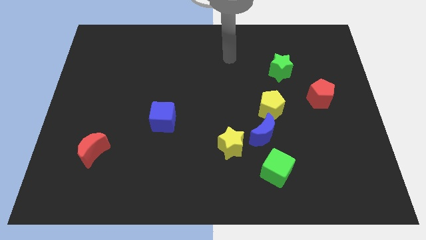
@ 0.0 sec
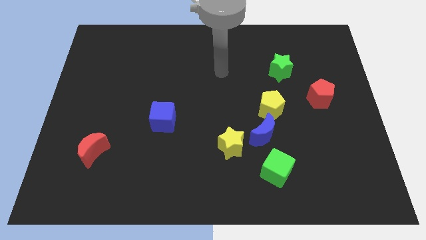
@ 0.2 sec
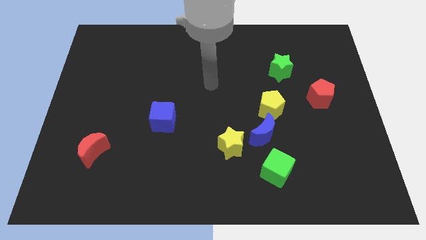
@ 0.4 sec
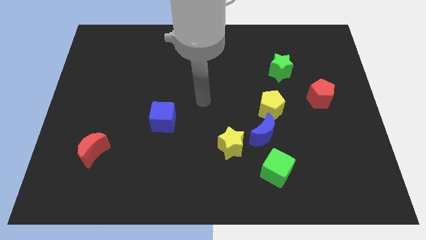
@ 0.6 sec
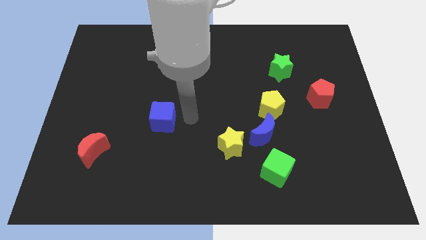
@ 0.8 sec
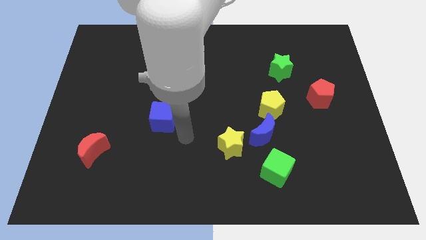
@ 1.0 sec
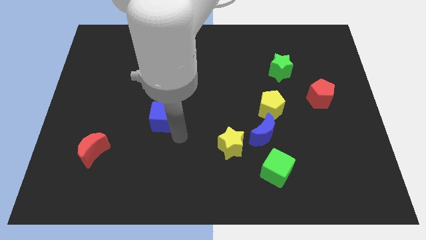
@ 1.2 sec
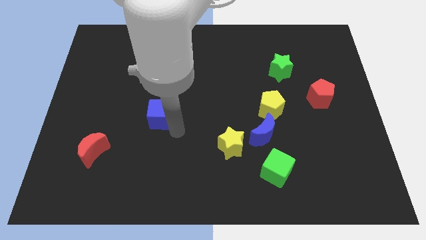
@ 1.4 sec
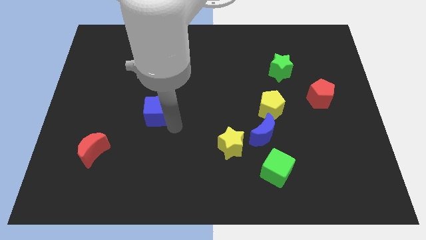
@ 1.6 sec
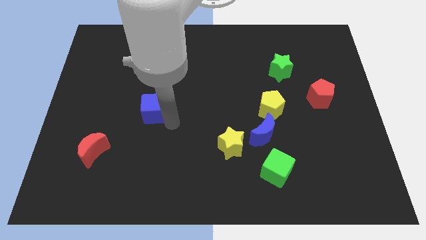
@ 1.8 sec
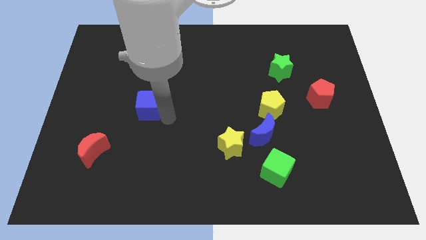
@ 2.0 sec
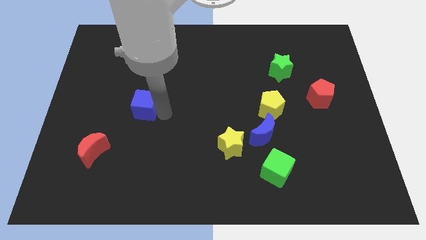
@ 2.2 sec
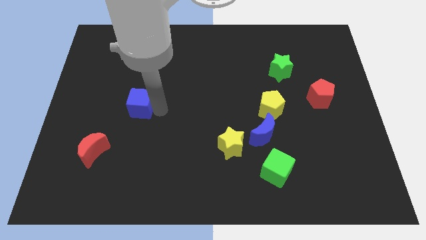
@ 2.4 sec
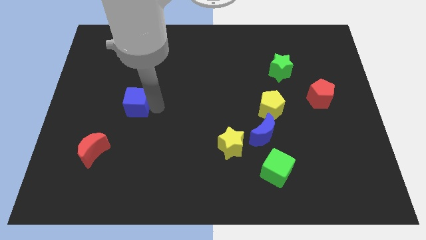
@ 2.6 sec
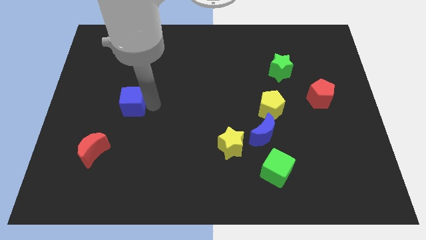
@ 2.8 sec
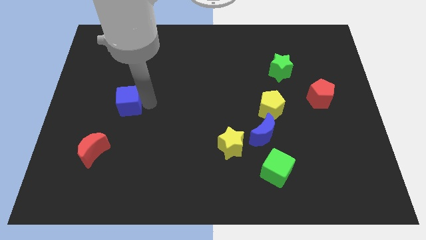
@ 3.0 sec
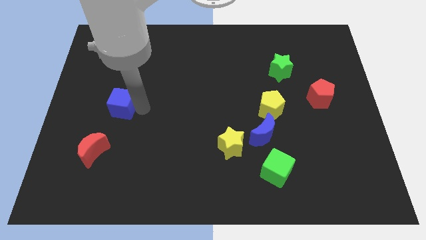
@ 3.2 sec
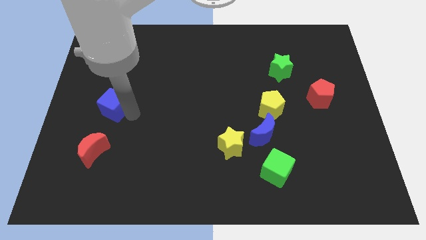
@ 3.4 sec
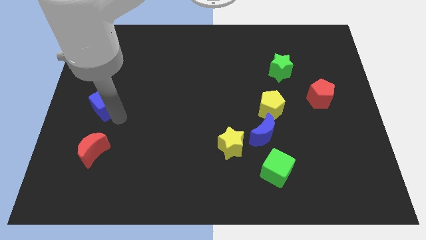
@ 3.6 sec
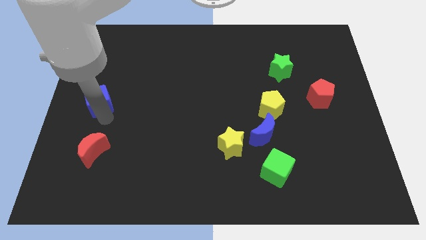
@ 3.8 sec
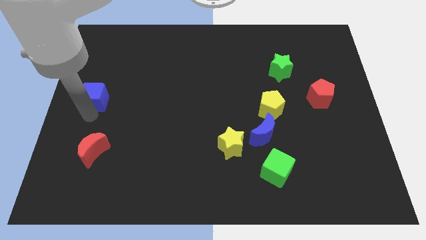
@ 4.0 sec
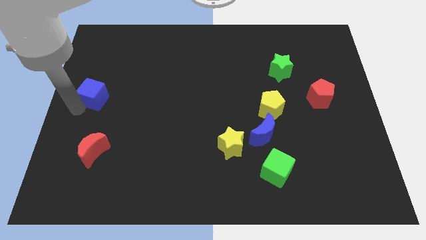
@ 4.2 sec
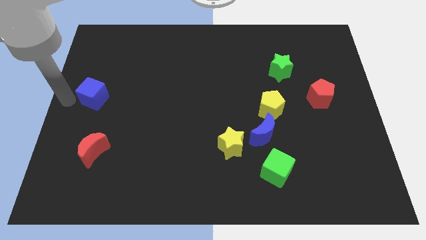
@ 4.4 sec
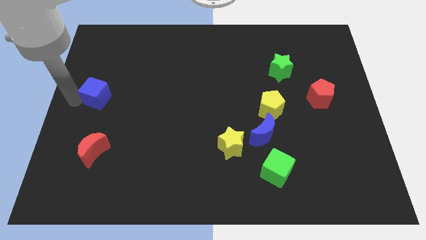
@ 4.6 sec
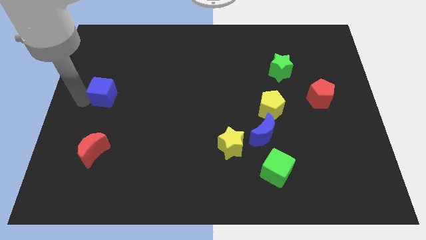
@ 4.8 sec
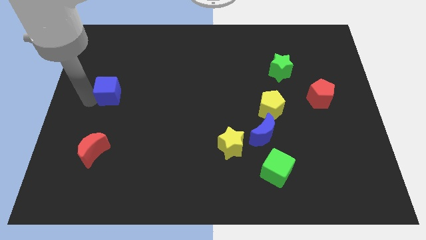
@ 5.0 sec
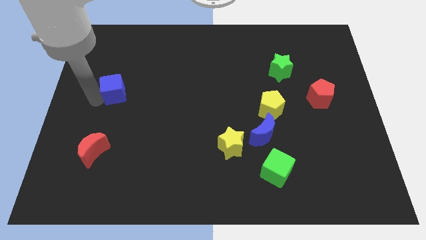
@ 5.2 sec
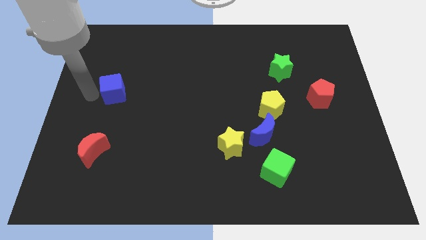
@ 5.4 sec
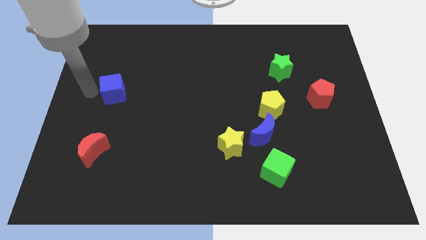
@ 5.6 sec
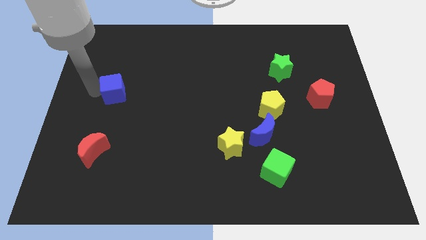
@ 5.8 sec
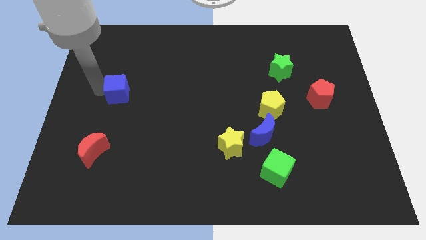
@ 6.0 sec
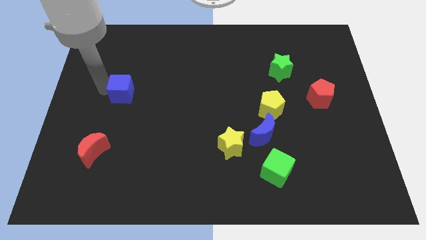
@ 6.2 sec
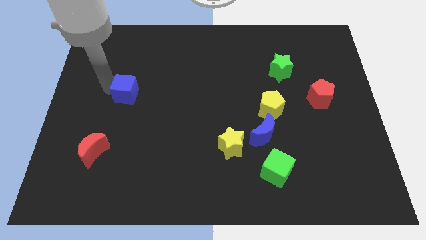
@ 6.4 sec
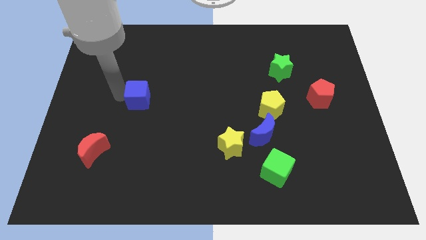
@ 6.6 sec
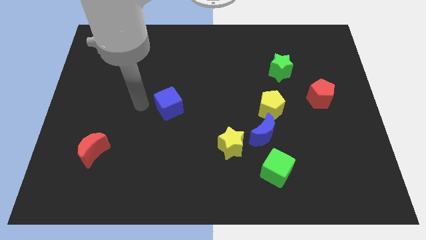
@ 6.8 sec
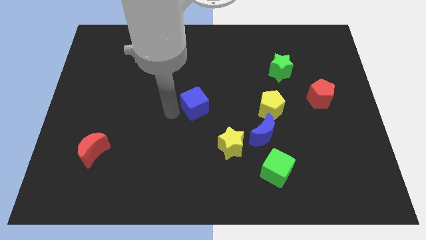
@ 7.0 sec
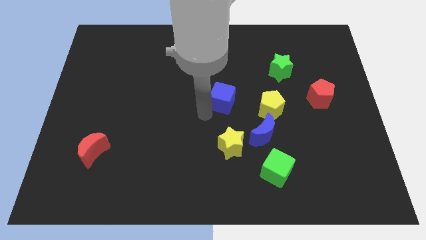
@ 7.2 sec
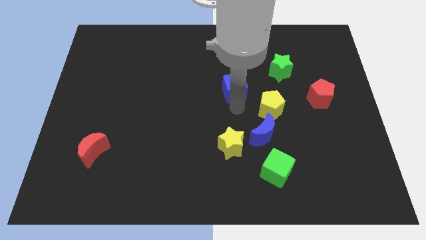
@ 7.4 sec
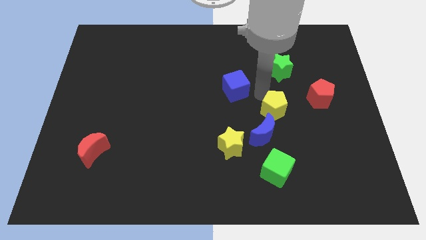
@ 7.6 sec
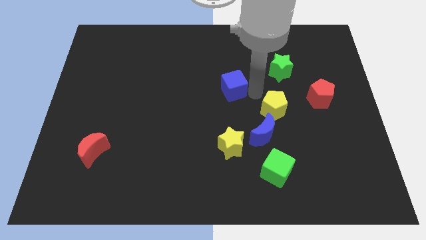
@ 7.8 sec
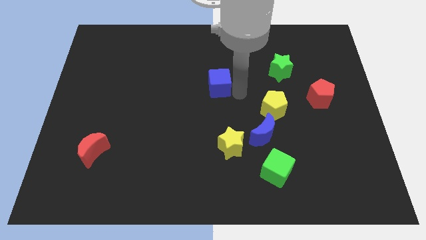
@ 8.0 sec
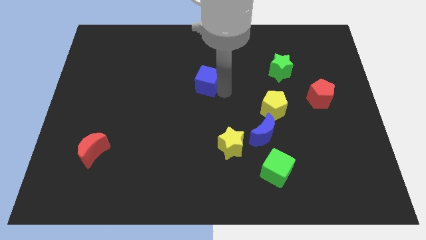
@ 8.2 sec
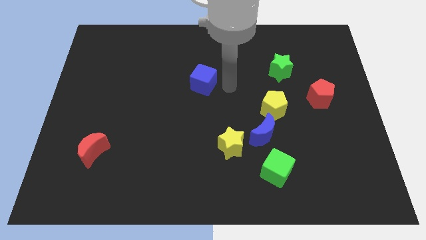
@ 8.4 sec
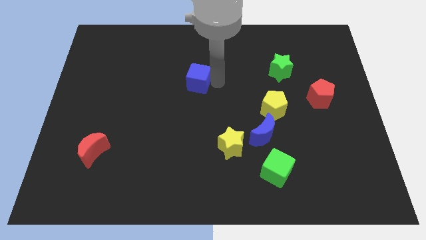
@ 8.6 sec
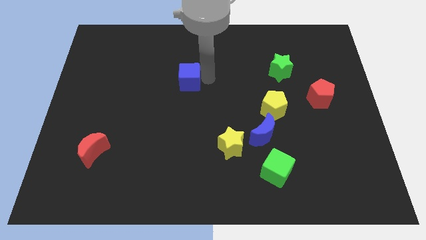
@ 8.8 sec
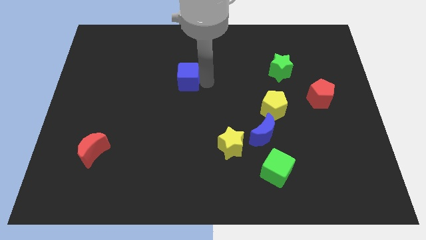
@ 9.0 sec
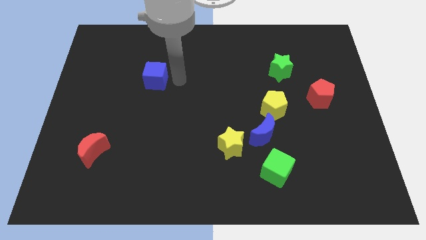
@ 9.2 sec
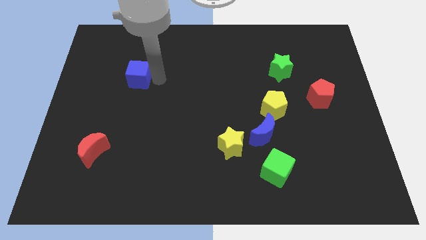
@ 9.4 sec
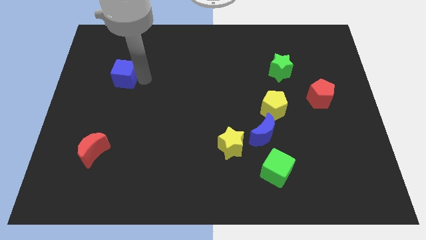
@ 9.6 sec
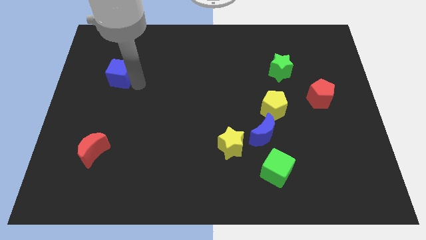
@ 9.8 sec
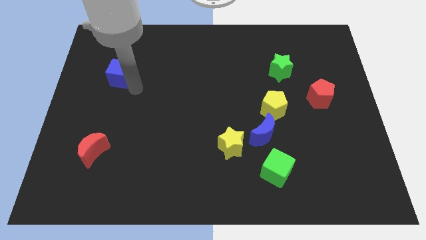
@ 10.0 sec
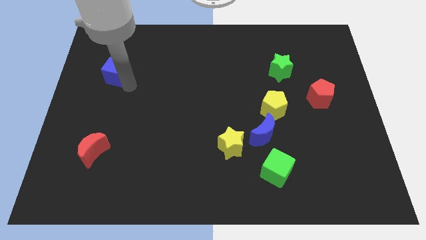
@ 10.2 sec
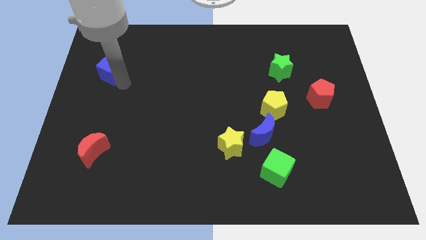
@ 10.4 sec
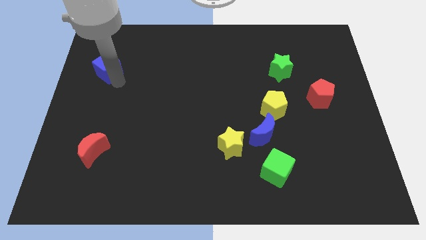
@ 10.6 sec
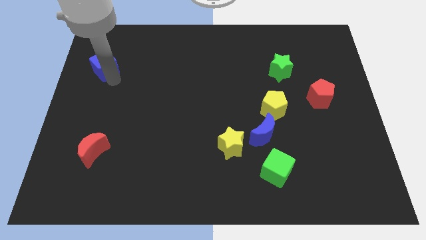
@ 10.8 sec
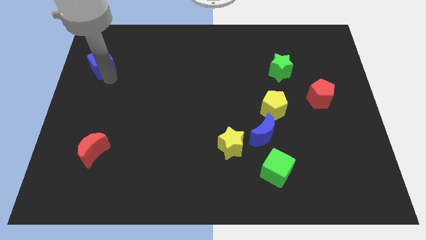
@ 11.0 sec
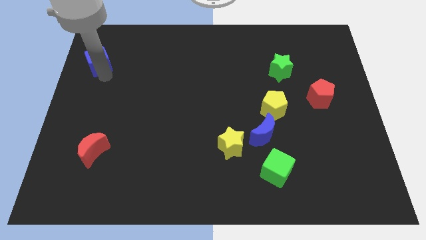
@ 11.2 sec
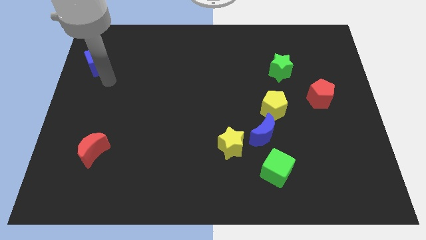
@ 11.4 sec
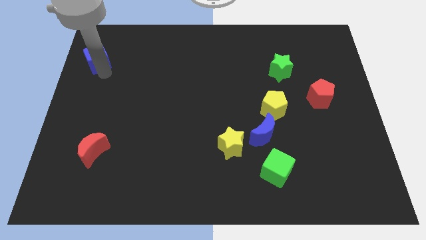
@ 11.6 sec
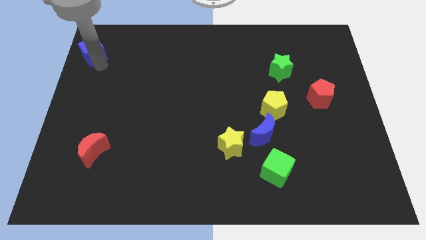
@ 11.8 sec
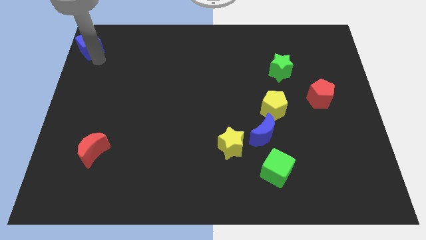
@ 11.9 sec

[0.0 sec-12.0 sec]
slide the blue cube to the upper left corner
